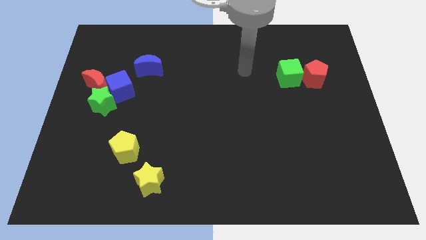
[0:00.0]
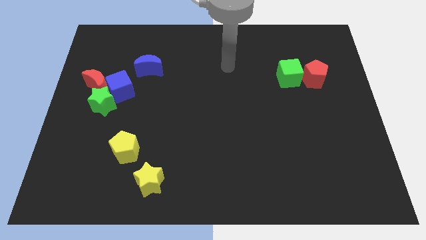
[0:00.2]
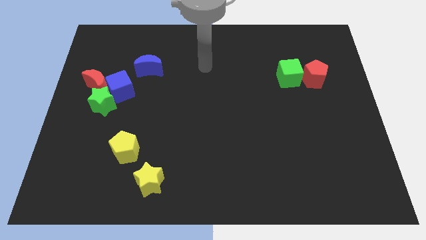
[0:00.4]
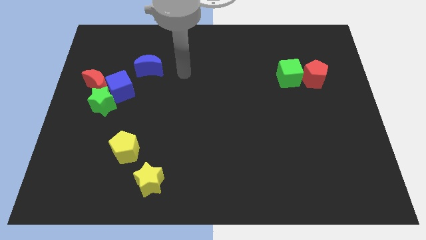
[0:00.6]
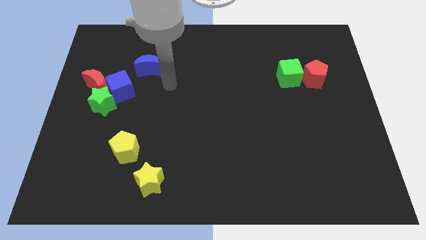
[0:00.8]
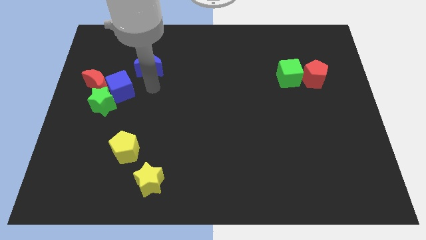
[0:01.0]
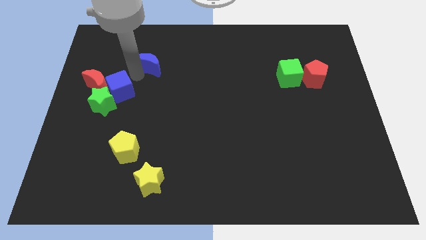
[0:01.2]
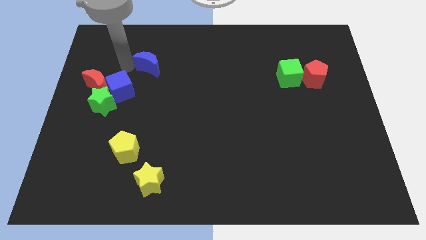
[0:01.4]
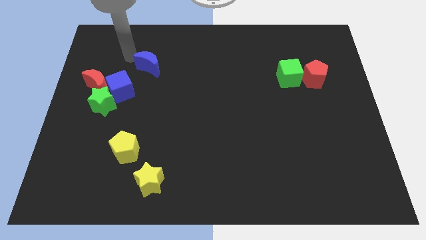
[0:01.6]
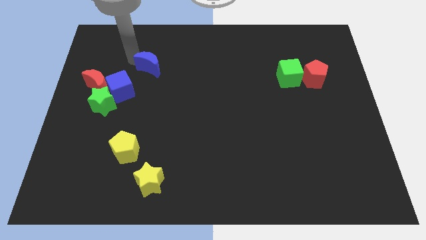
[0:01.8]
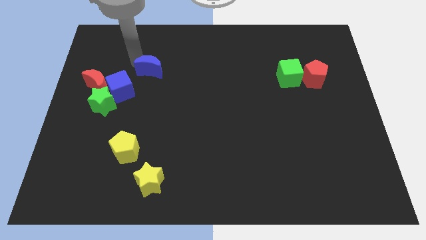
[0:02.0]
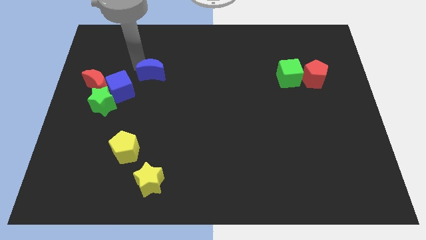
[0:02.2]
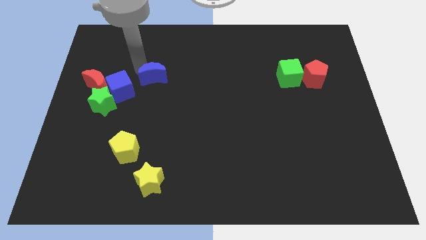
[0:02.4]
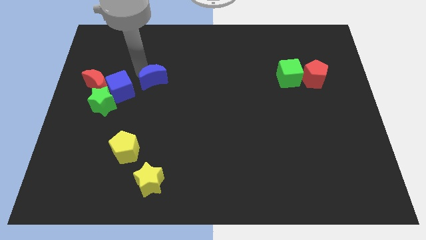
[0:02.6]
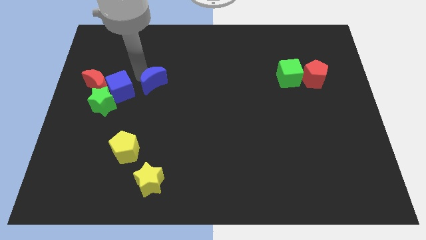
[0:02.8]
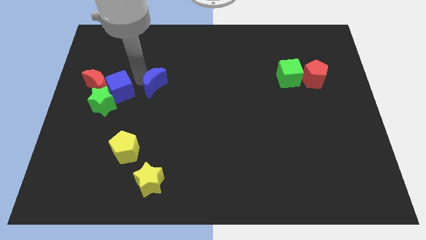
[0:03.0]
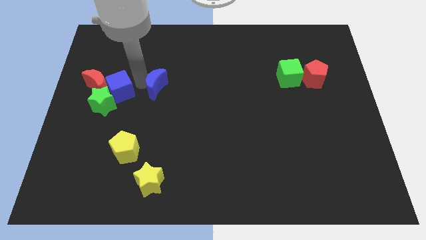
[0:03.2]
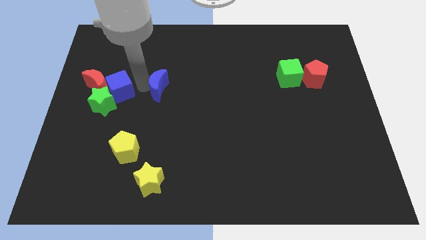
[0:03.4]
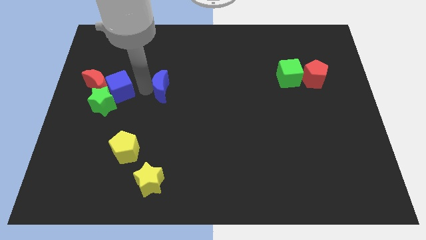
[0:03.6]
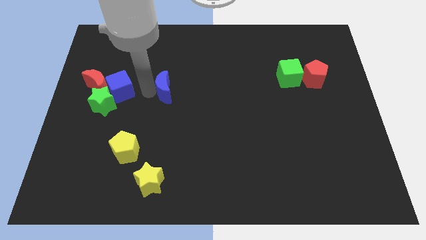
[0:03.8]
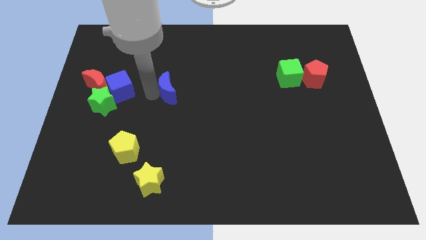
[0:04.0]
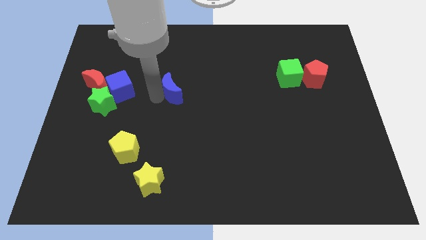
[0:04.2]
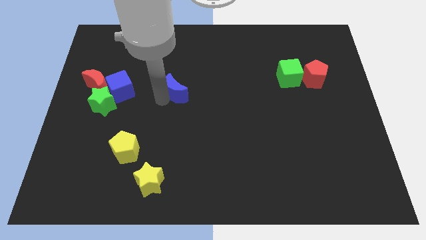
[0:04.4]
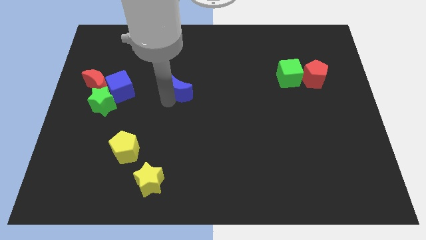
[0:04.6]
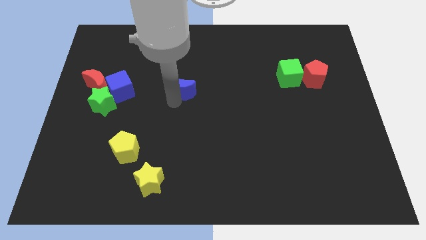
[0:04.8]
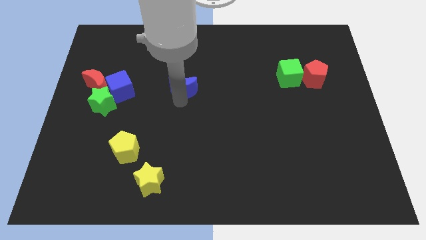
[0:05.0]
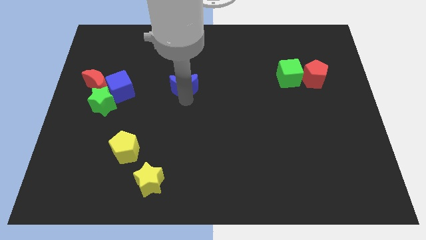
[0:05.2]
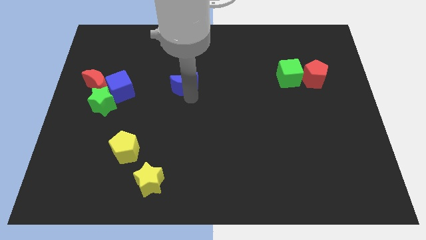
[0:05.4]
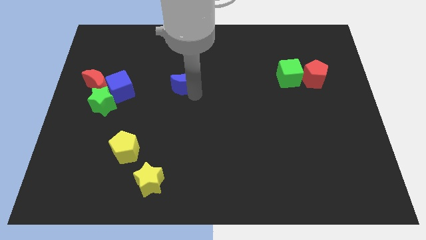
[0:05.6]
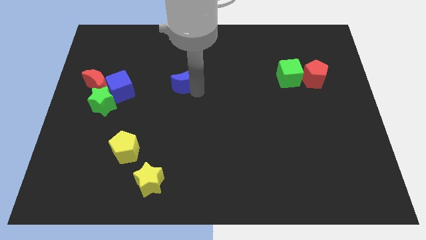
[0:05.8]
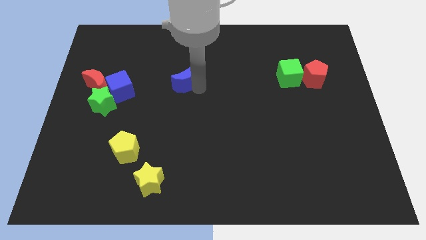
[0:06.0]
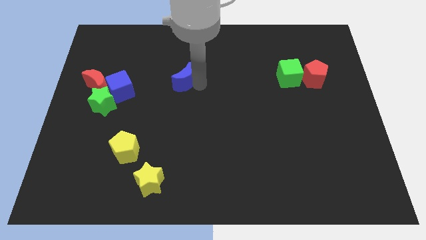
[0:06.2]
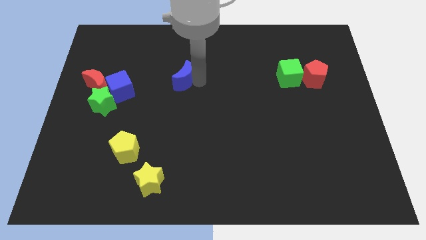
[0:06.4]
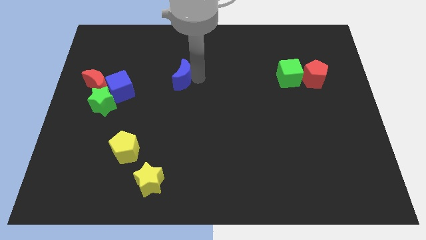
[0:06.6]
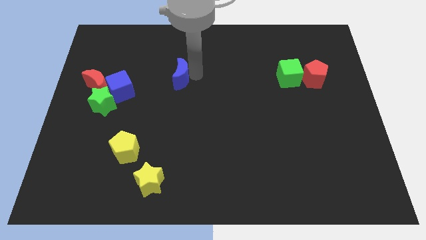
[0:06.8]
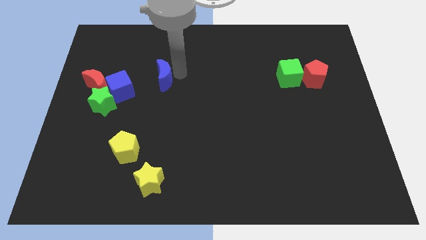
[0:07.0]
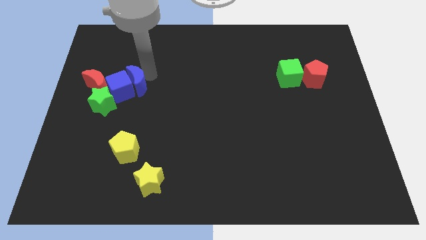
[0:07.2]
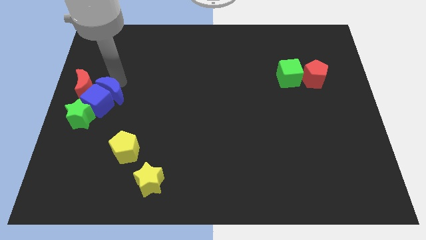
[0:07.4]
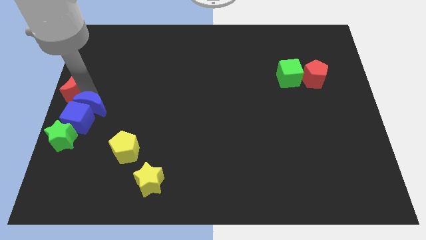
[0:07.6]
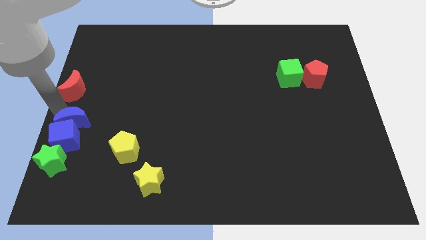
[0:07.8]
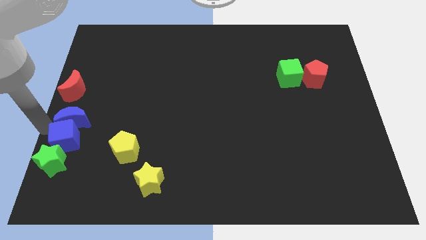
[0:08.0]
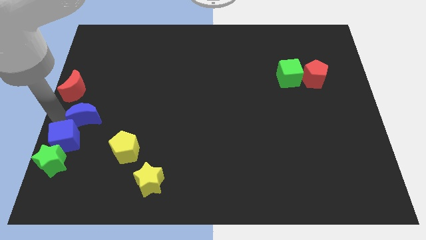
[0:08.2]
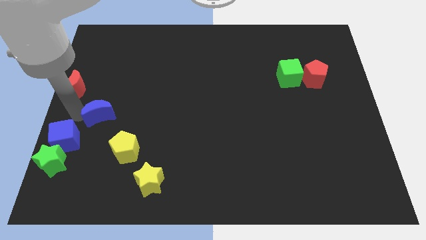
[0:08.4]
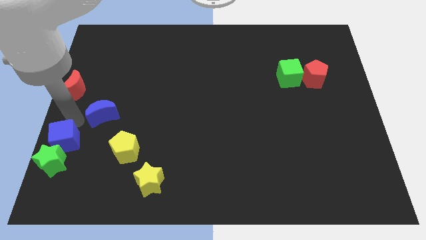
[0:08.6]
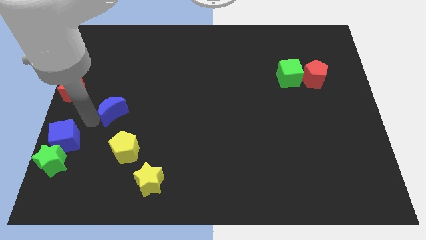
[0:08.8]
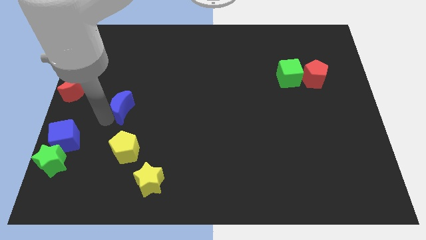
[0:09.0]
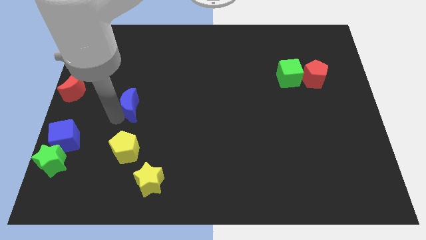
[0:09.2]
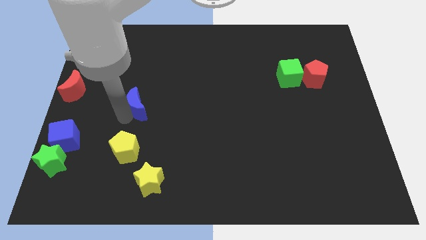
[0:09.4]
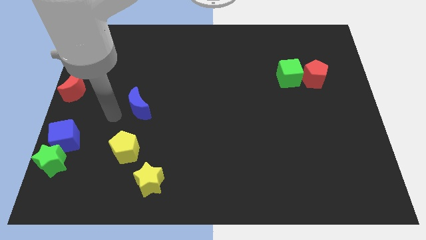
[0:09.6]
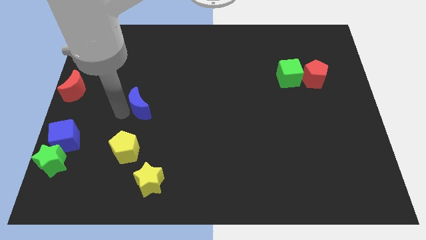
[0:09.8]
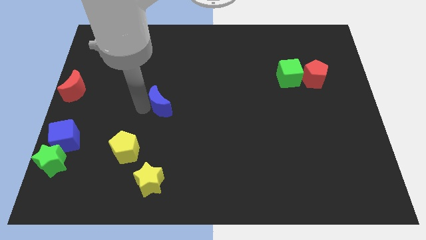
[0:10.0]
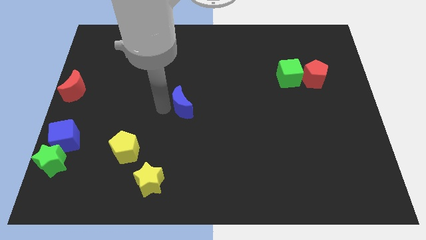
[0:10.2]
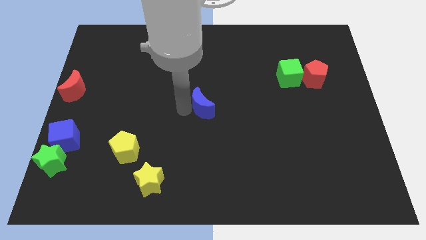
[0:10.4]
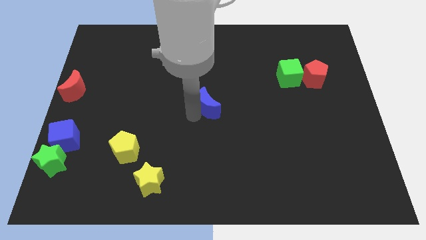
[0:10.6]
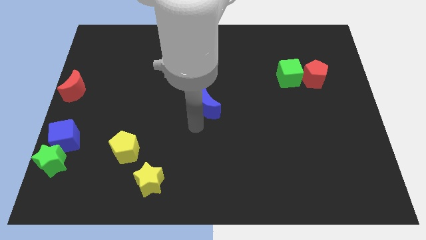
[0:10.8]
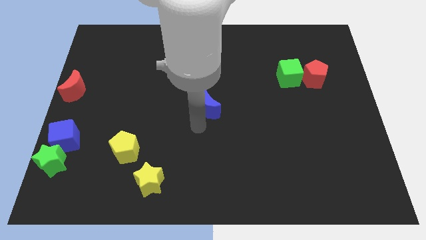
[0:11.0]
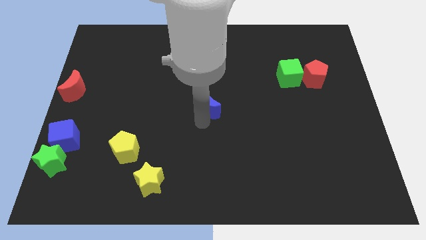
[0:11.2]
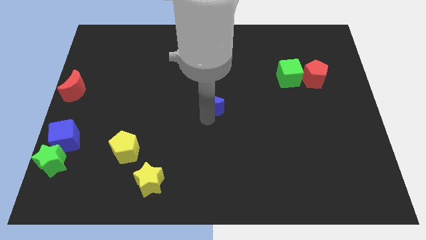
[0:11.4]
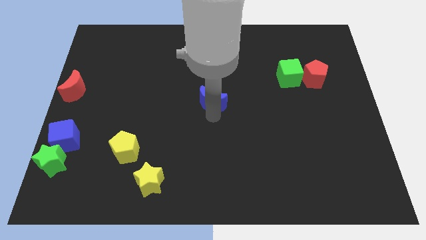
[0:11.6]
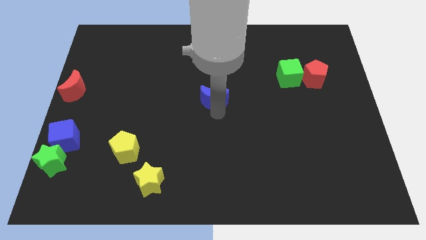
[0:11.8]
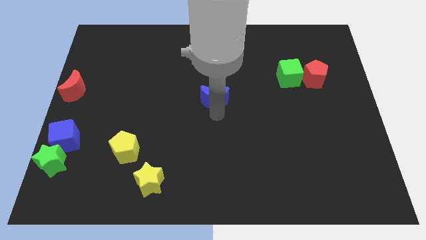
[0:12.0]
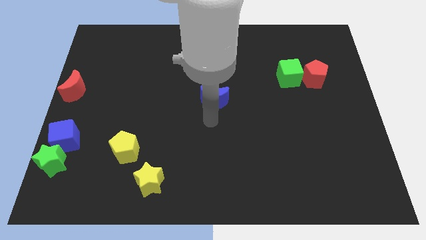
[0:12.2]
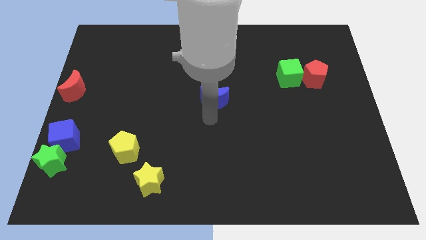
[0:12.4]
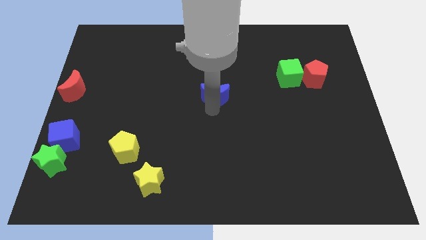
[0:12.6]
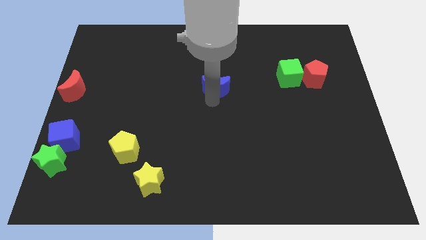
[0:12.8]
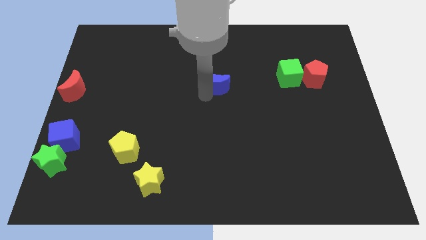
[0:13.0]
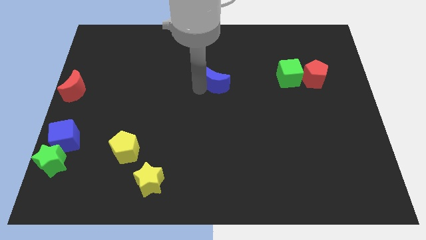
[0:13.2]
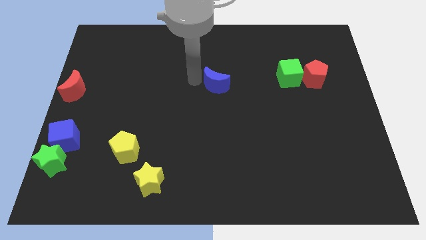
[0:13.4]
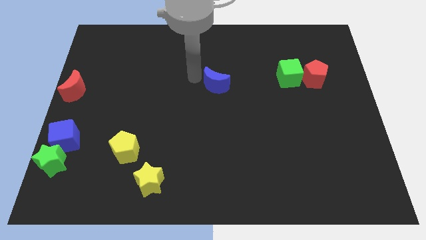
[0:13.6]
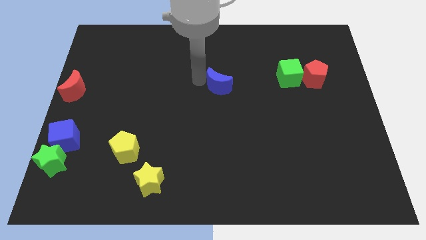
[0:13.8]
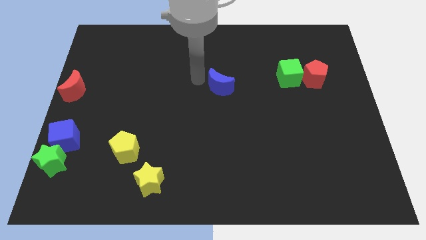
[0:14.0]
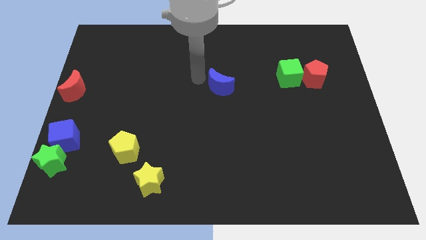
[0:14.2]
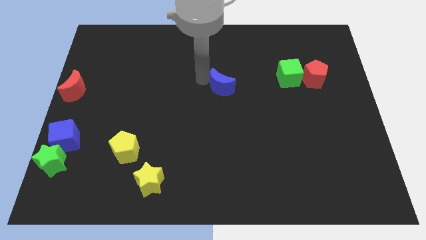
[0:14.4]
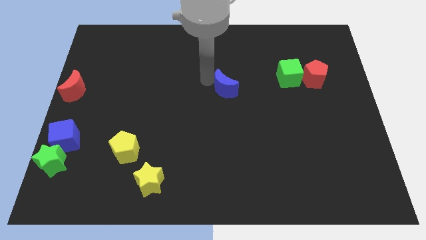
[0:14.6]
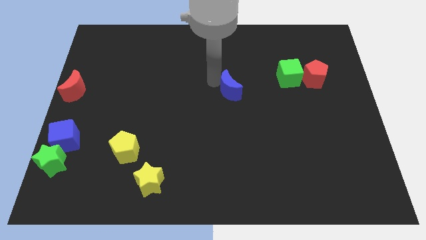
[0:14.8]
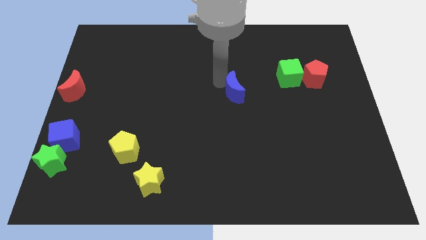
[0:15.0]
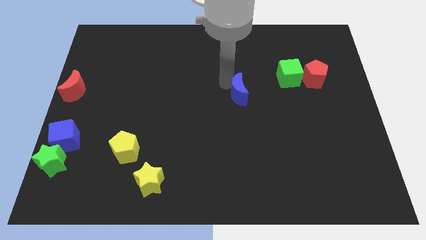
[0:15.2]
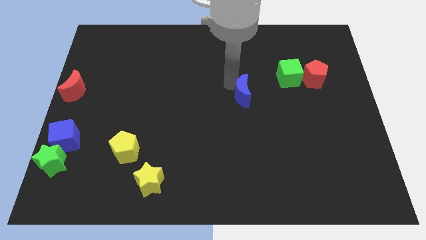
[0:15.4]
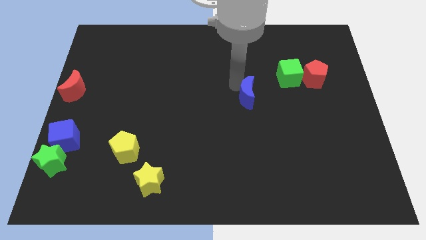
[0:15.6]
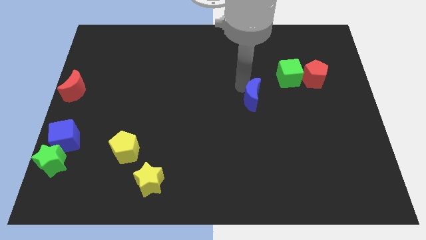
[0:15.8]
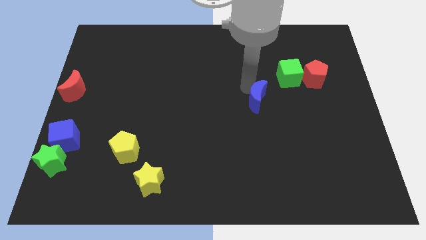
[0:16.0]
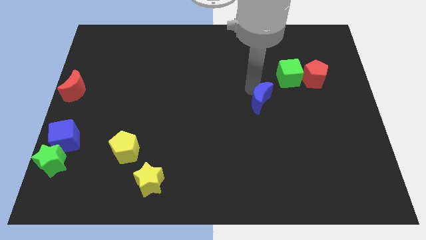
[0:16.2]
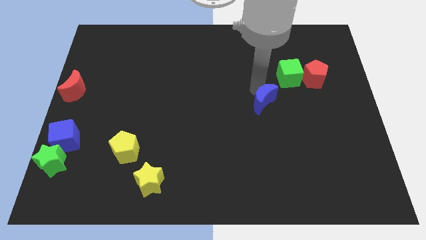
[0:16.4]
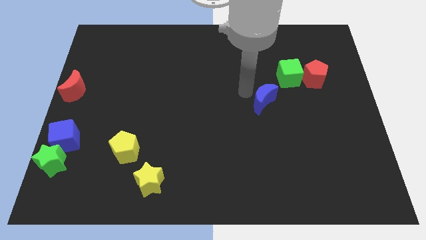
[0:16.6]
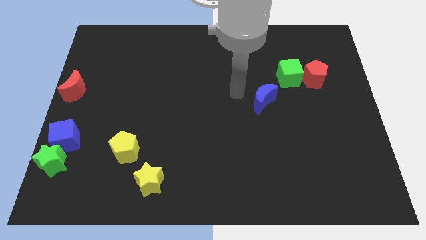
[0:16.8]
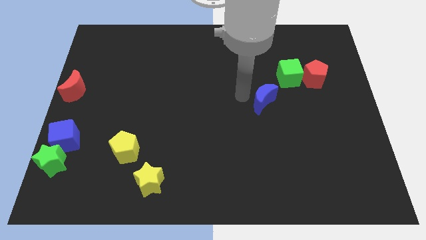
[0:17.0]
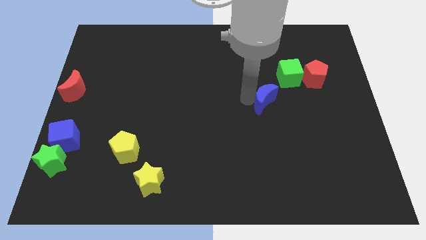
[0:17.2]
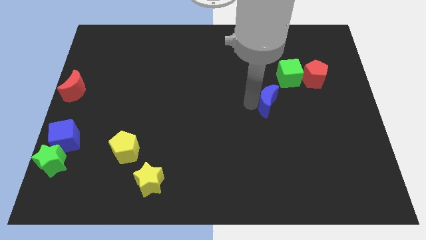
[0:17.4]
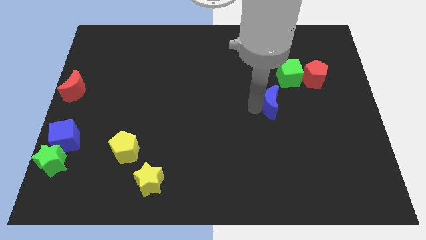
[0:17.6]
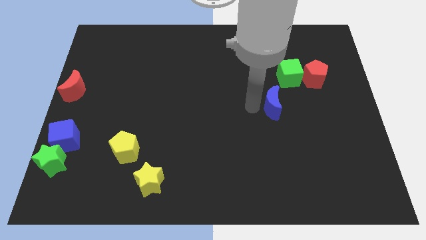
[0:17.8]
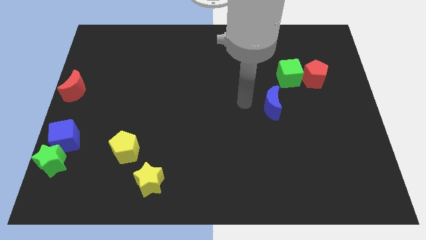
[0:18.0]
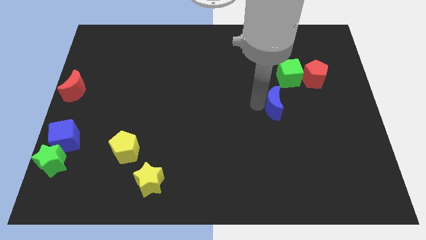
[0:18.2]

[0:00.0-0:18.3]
move the blue moon below the green cube
